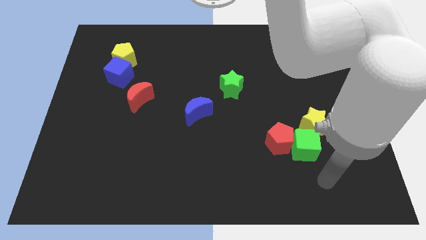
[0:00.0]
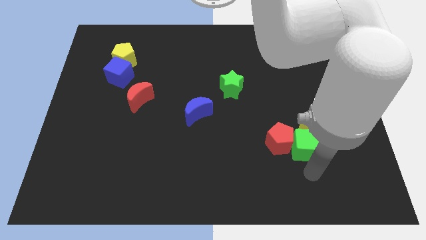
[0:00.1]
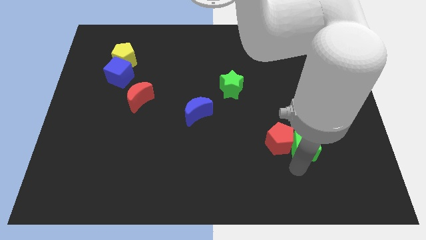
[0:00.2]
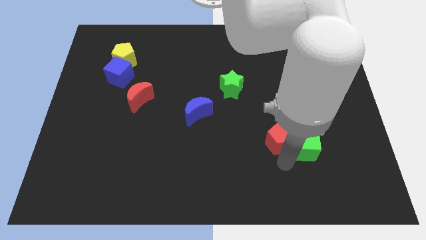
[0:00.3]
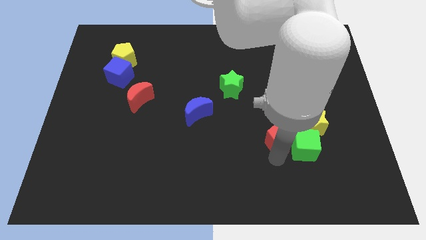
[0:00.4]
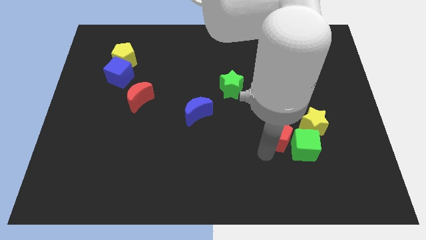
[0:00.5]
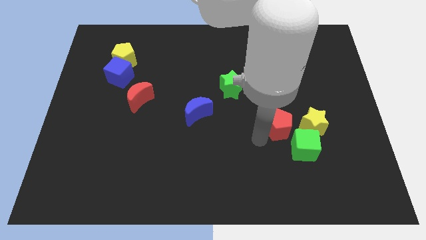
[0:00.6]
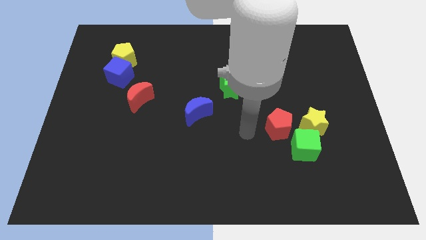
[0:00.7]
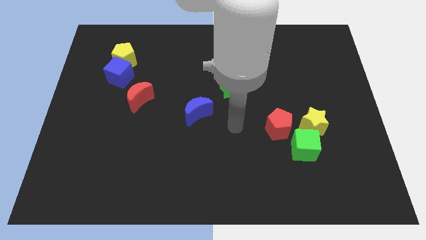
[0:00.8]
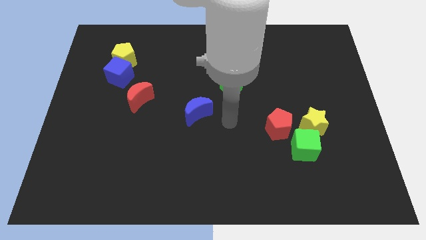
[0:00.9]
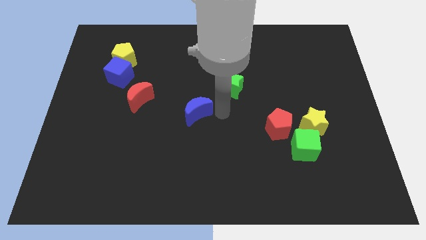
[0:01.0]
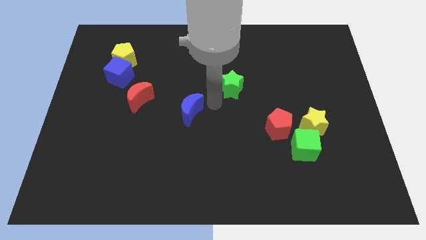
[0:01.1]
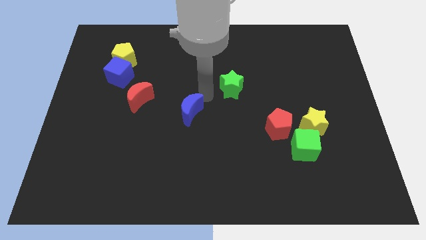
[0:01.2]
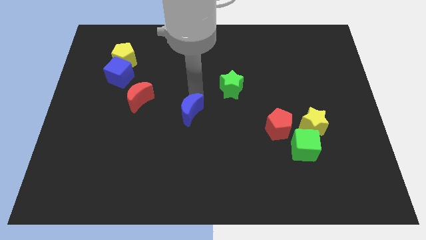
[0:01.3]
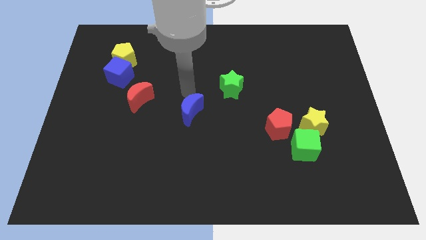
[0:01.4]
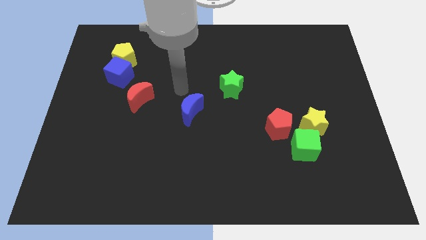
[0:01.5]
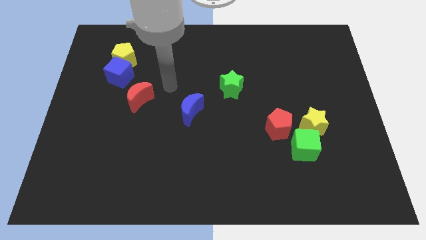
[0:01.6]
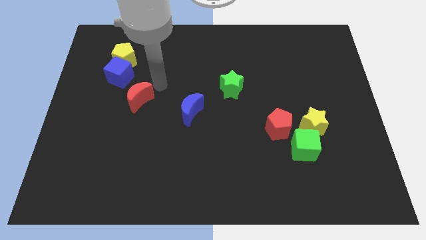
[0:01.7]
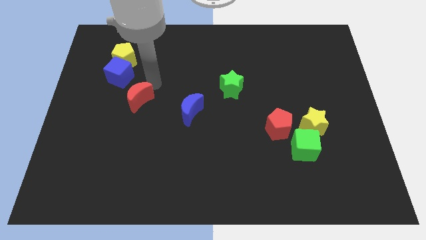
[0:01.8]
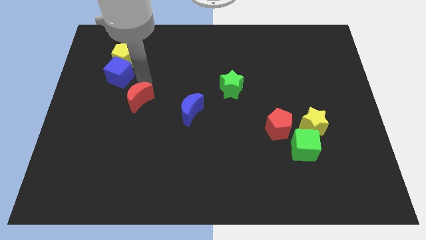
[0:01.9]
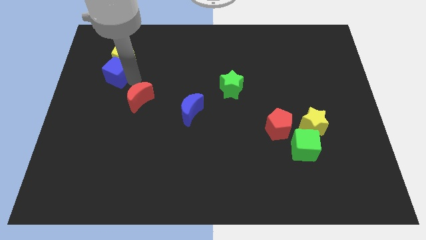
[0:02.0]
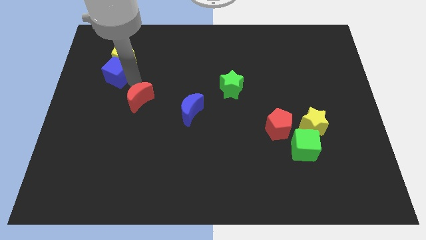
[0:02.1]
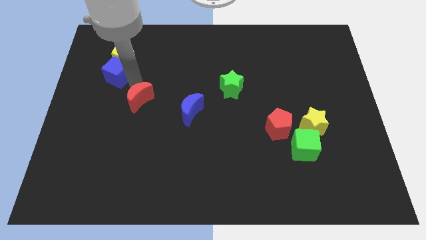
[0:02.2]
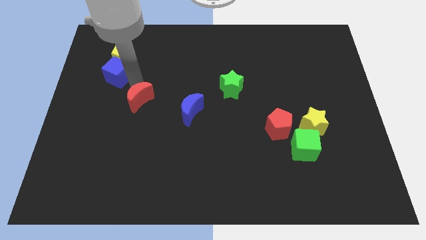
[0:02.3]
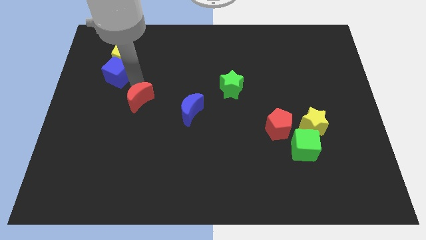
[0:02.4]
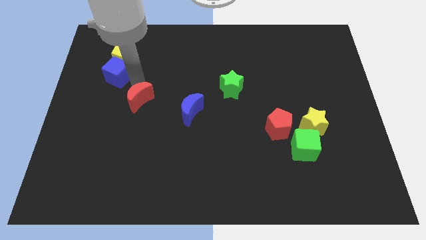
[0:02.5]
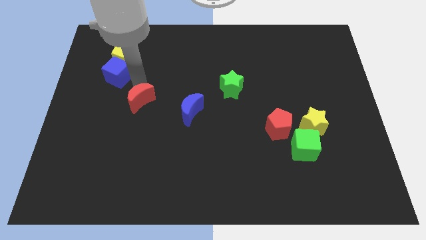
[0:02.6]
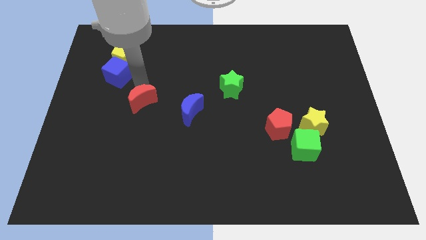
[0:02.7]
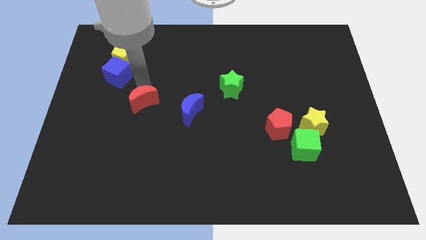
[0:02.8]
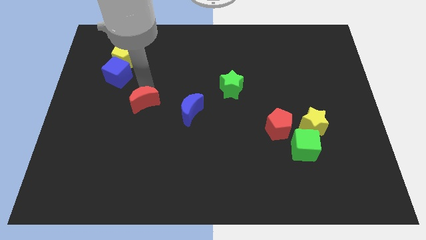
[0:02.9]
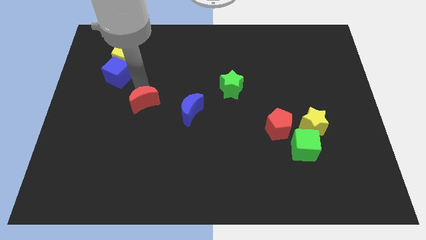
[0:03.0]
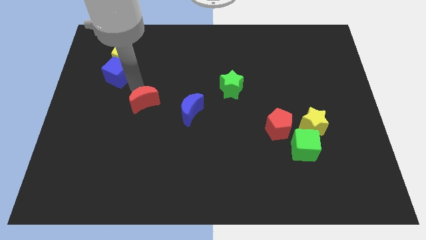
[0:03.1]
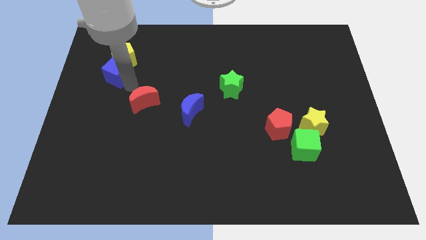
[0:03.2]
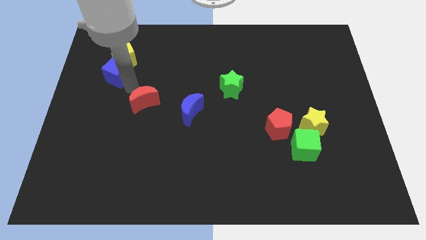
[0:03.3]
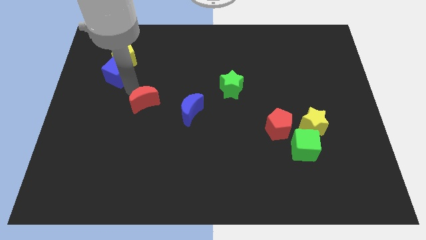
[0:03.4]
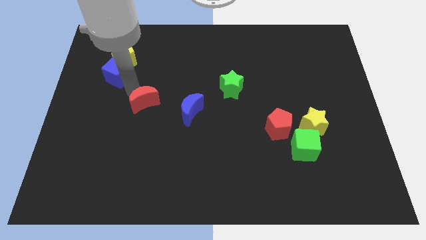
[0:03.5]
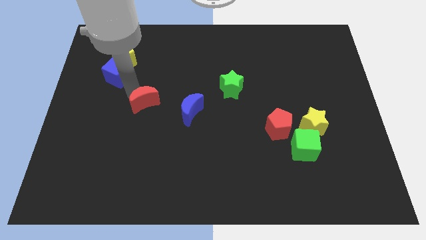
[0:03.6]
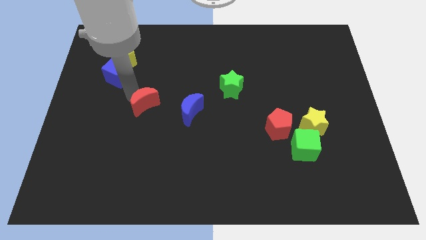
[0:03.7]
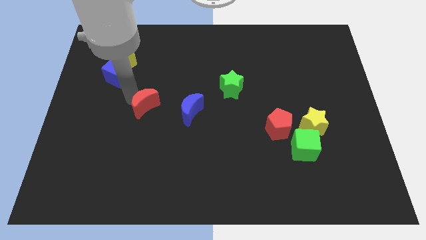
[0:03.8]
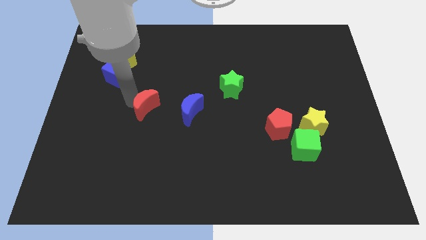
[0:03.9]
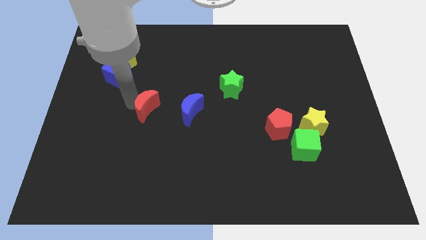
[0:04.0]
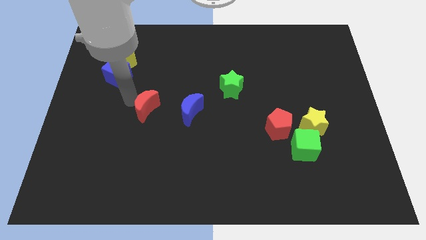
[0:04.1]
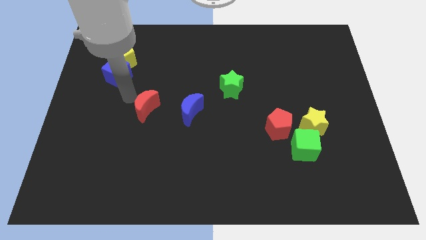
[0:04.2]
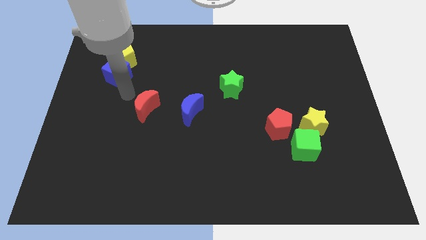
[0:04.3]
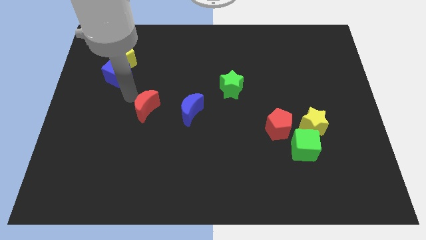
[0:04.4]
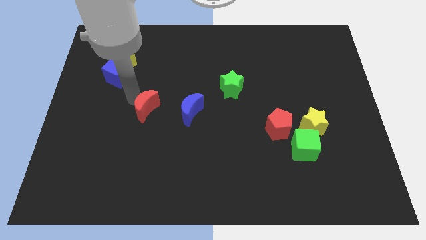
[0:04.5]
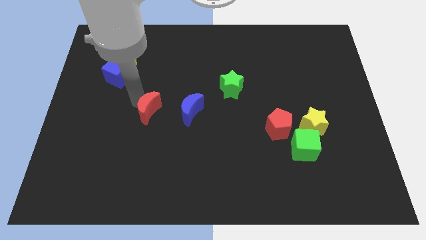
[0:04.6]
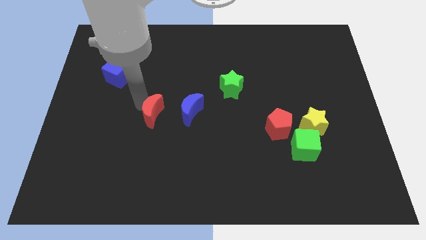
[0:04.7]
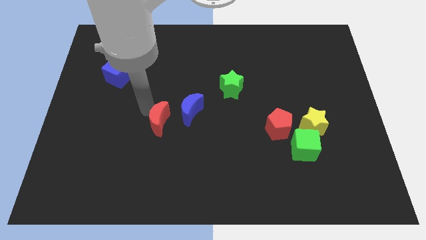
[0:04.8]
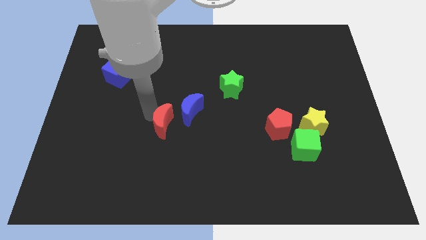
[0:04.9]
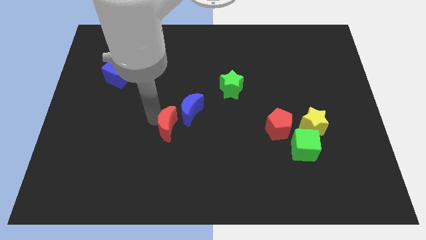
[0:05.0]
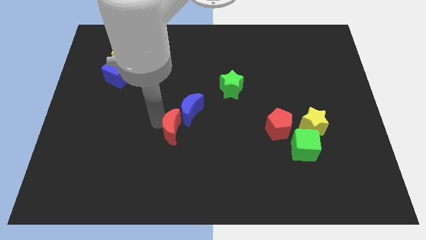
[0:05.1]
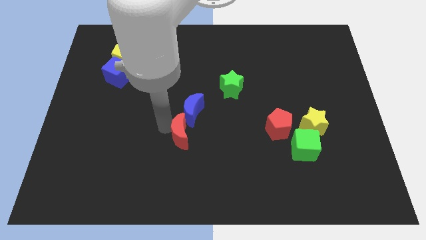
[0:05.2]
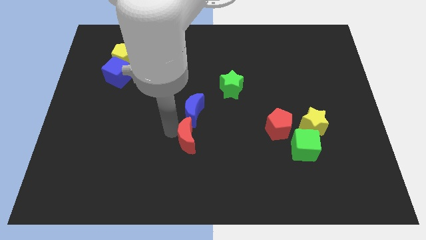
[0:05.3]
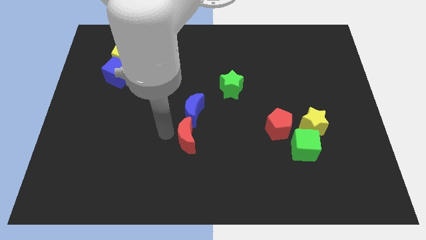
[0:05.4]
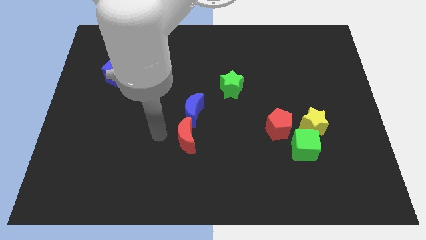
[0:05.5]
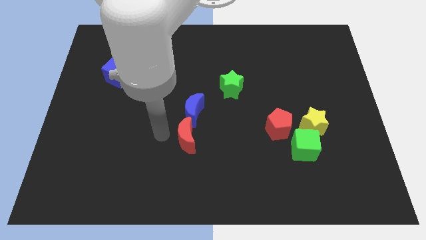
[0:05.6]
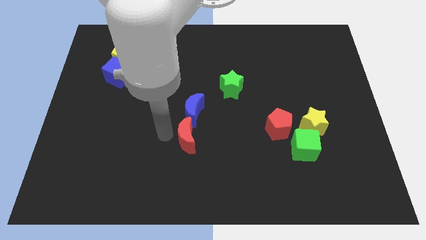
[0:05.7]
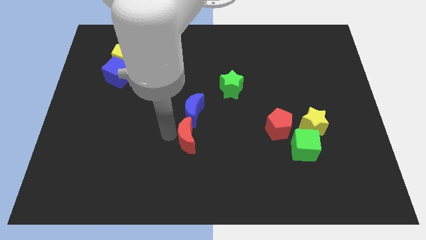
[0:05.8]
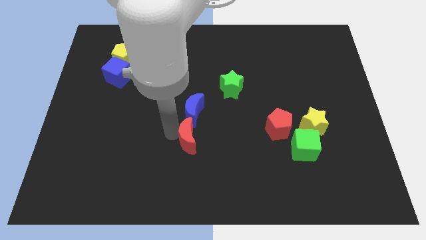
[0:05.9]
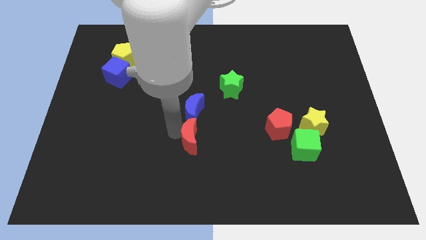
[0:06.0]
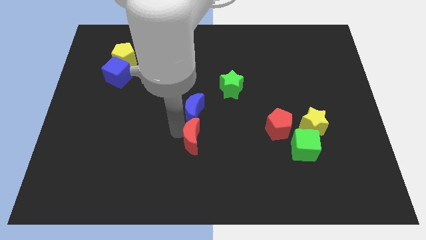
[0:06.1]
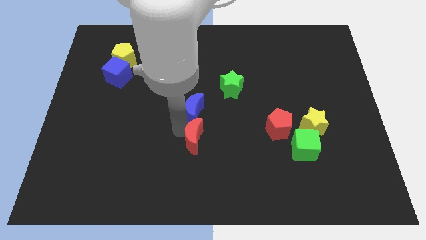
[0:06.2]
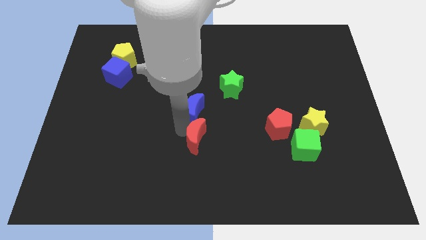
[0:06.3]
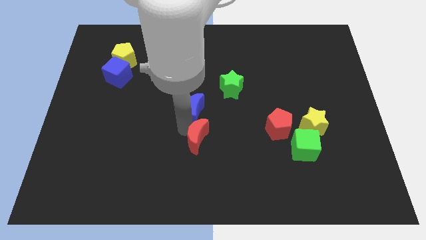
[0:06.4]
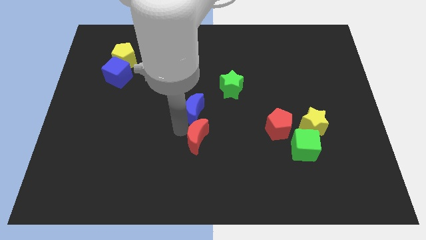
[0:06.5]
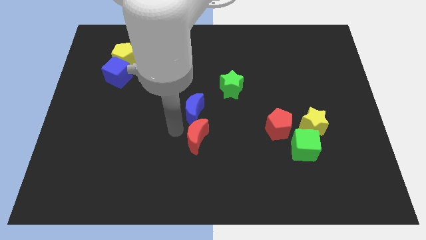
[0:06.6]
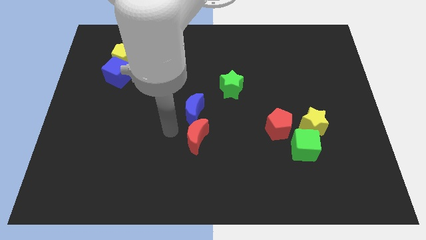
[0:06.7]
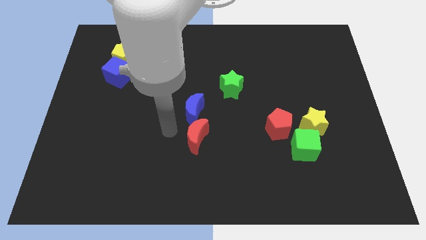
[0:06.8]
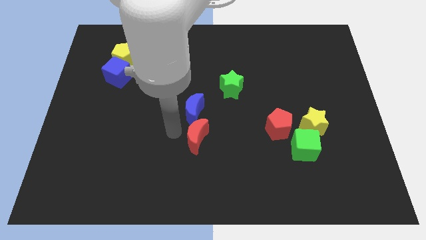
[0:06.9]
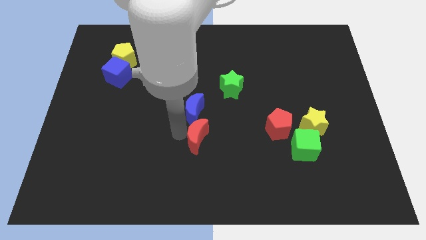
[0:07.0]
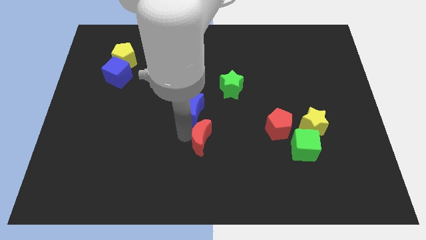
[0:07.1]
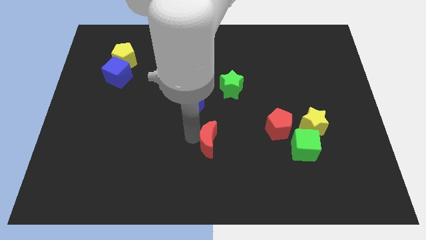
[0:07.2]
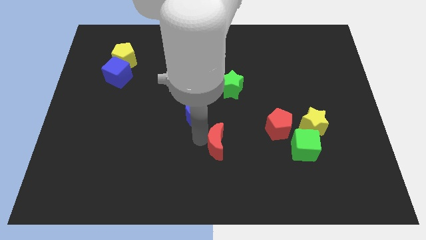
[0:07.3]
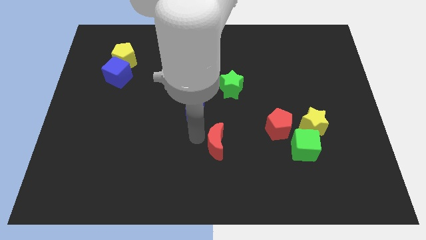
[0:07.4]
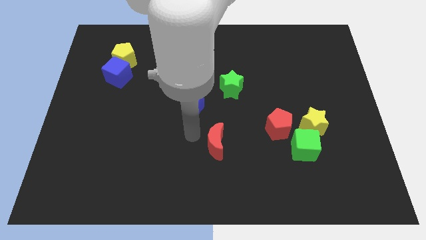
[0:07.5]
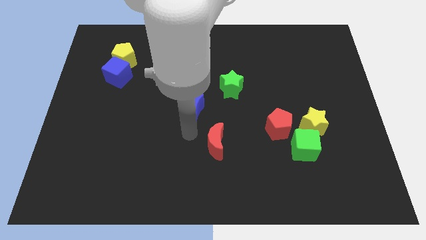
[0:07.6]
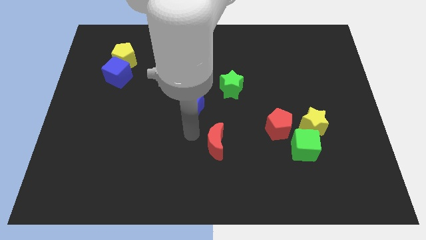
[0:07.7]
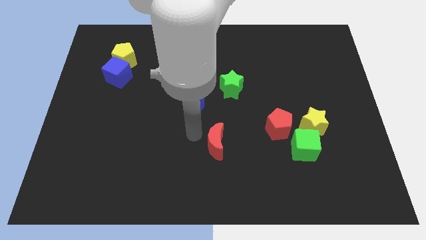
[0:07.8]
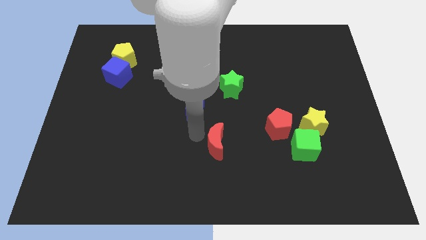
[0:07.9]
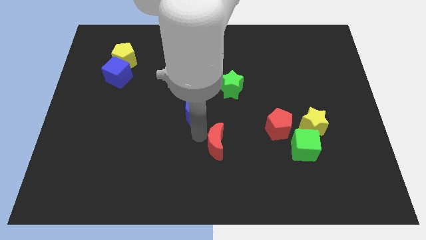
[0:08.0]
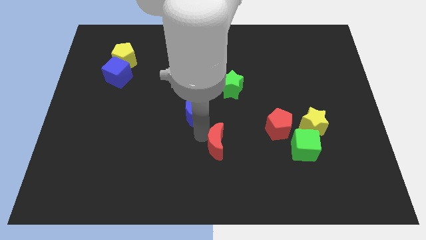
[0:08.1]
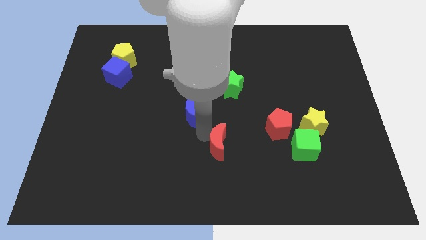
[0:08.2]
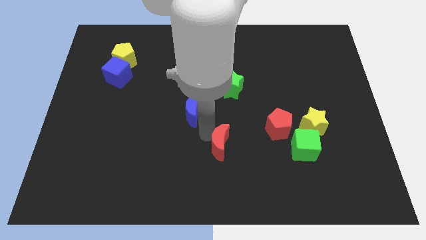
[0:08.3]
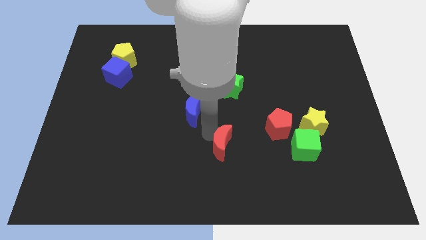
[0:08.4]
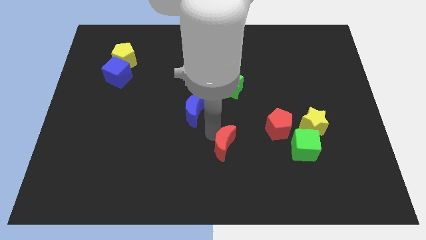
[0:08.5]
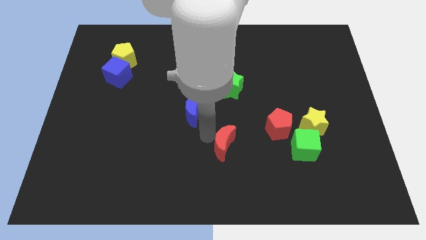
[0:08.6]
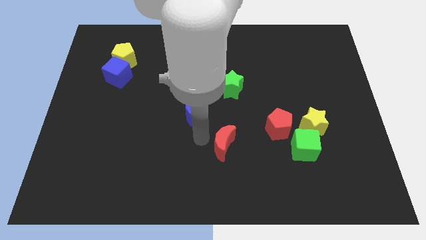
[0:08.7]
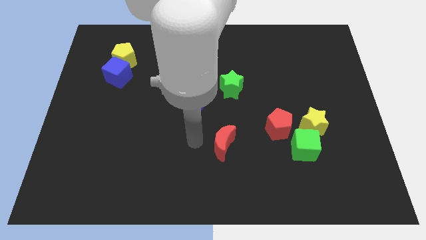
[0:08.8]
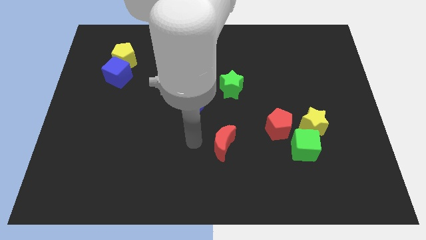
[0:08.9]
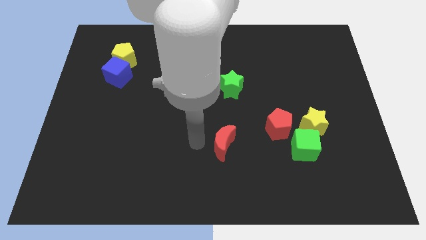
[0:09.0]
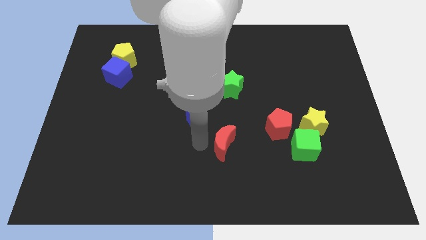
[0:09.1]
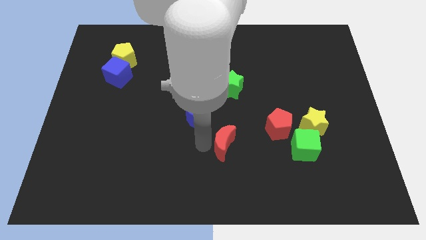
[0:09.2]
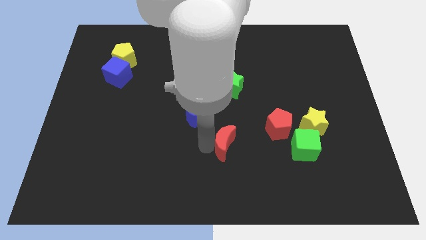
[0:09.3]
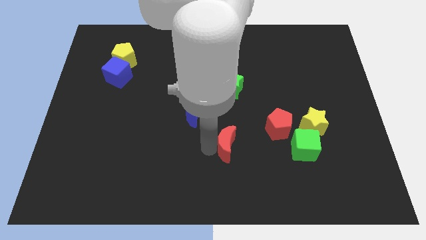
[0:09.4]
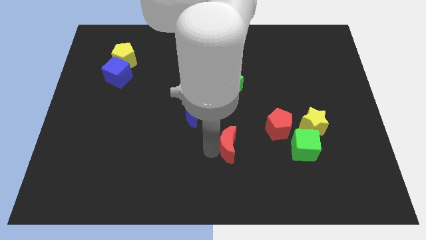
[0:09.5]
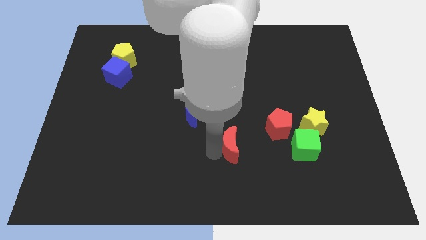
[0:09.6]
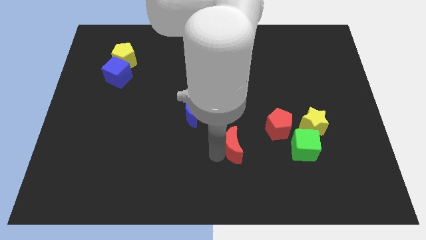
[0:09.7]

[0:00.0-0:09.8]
put the red moon diagonally down and to the left of the red pentagon
